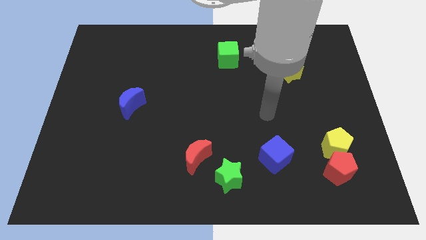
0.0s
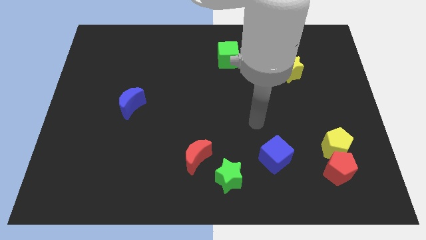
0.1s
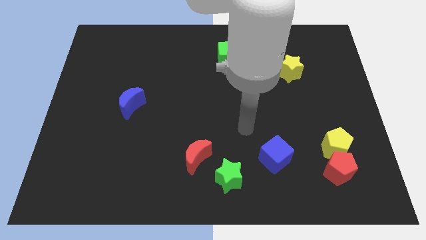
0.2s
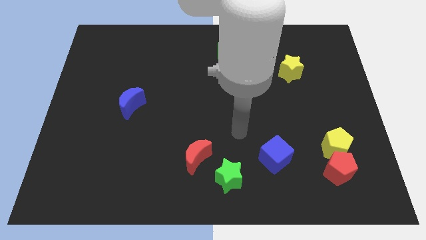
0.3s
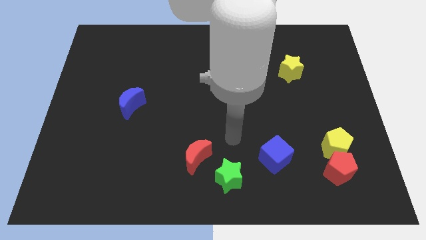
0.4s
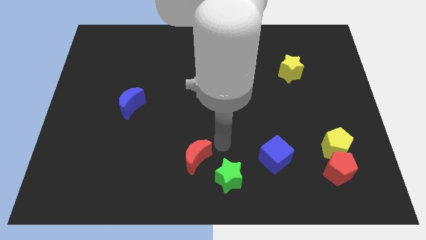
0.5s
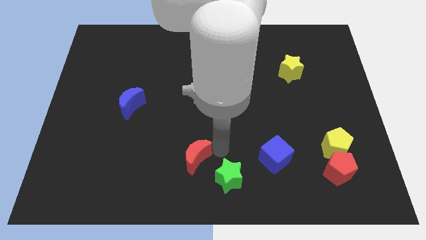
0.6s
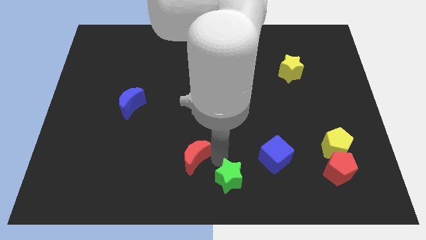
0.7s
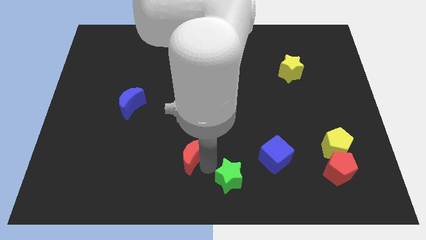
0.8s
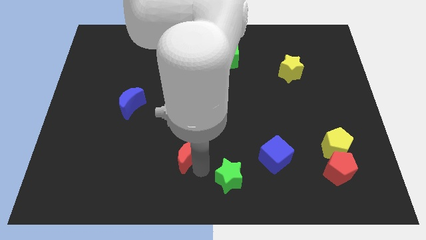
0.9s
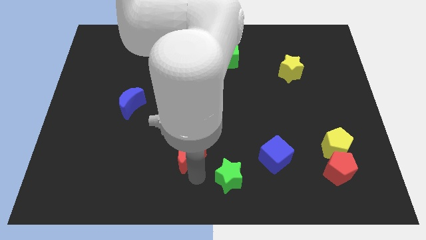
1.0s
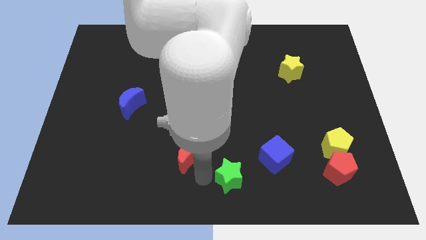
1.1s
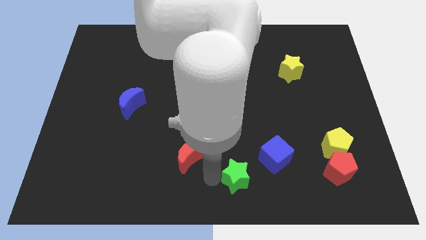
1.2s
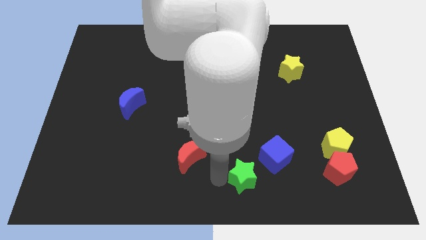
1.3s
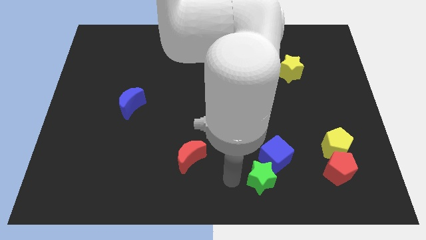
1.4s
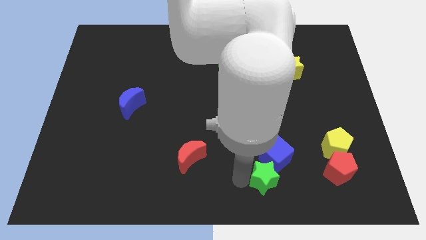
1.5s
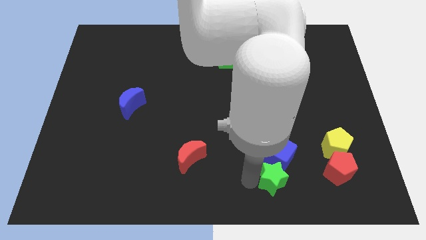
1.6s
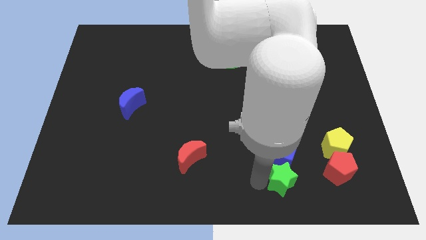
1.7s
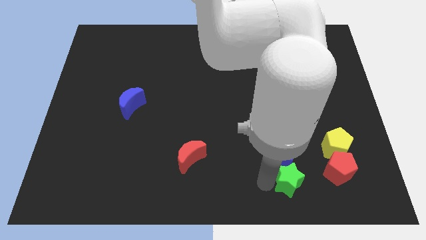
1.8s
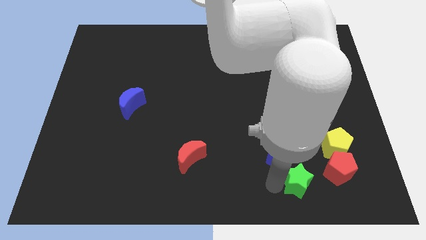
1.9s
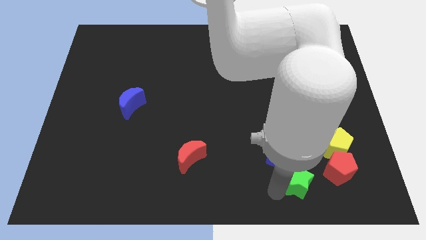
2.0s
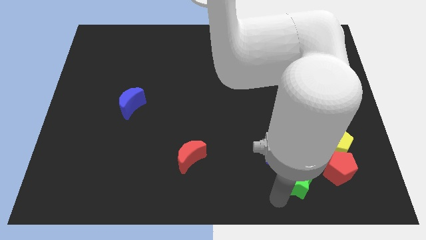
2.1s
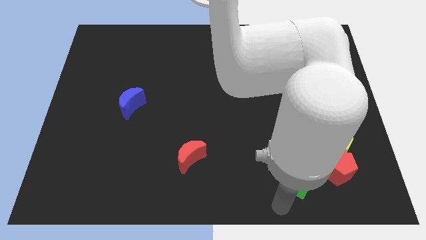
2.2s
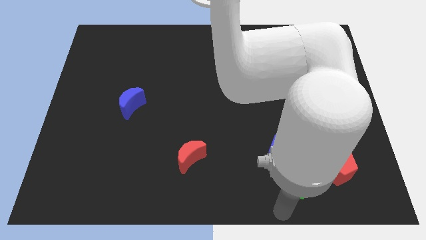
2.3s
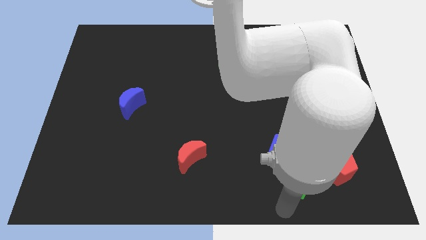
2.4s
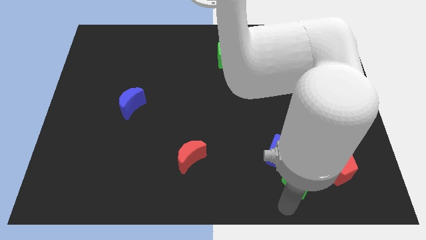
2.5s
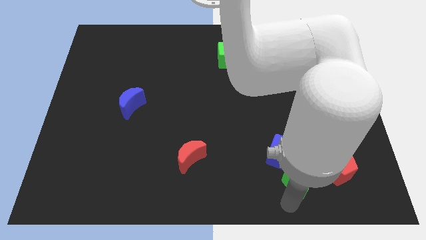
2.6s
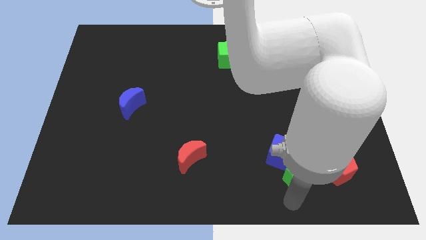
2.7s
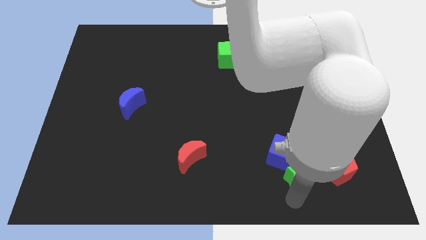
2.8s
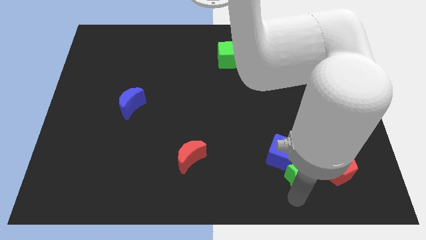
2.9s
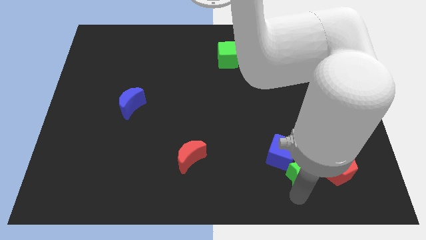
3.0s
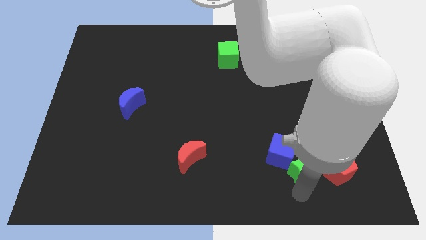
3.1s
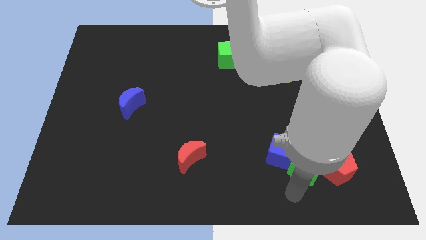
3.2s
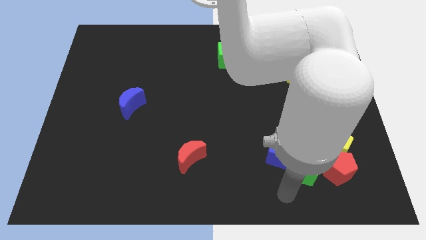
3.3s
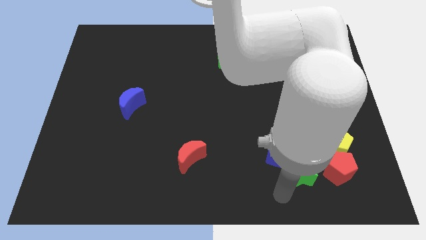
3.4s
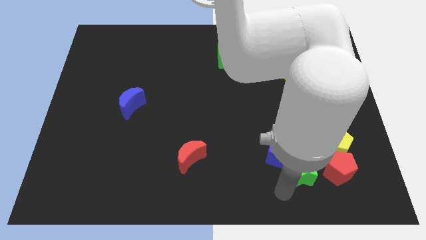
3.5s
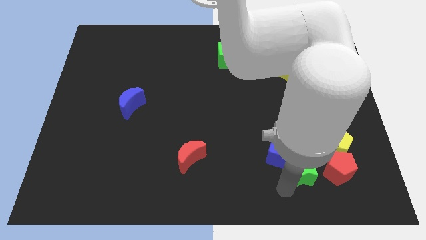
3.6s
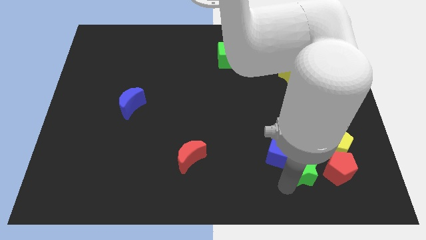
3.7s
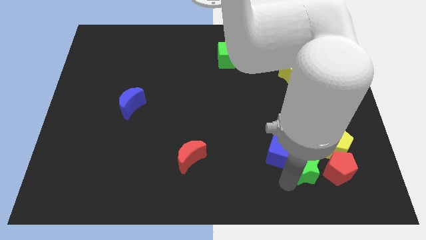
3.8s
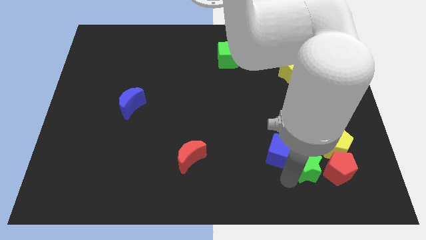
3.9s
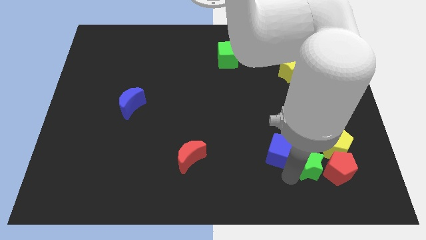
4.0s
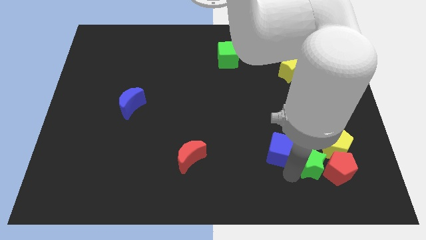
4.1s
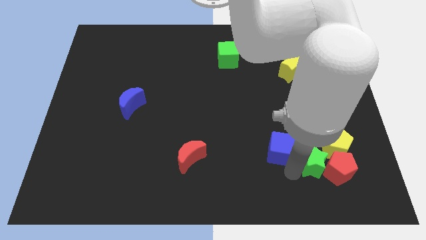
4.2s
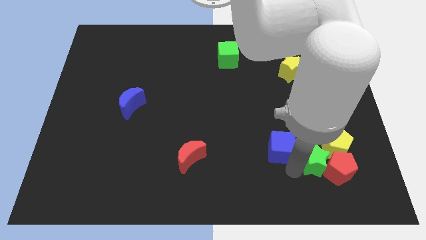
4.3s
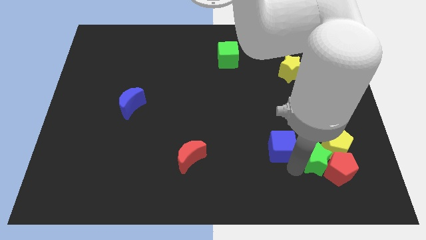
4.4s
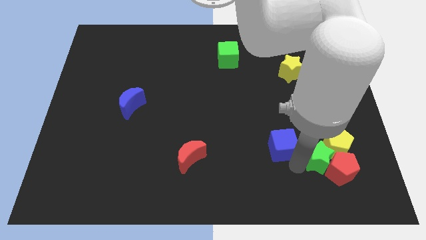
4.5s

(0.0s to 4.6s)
push the green star close to the yellow pentagon

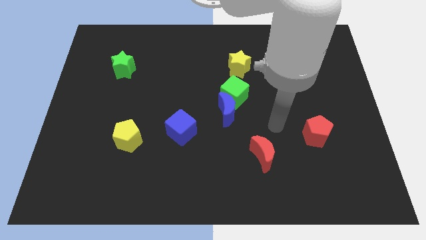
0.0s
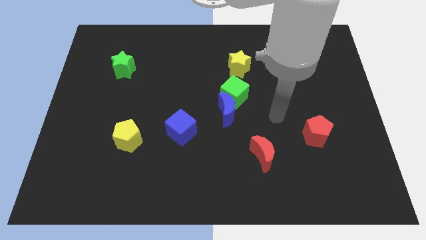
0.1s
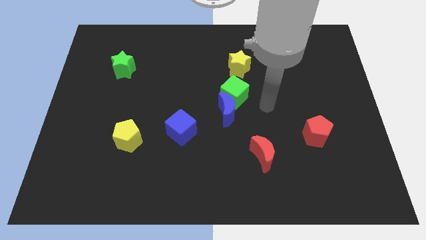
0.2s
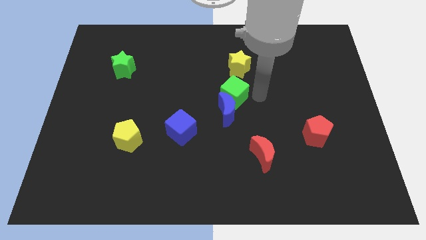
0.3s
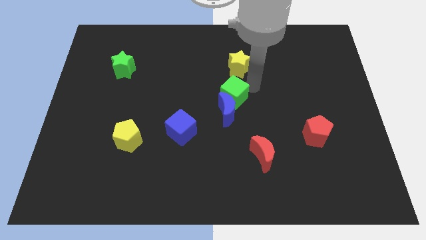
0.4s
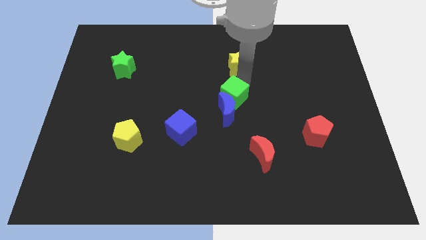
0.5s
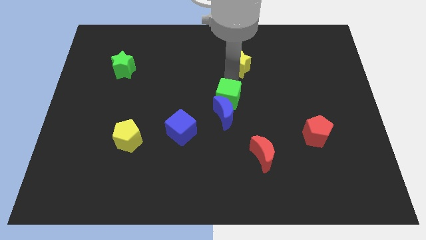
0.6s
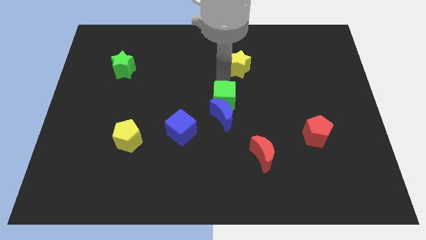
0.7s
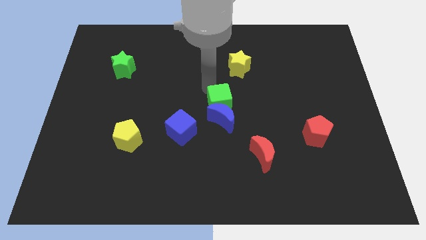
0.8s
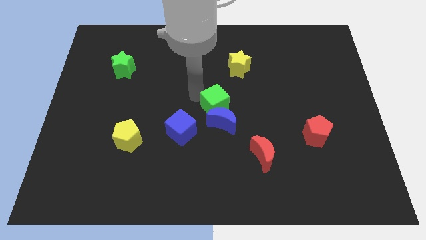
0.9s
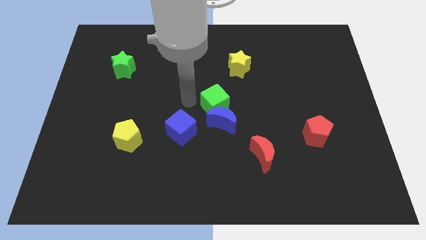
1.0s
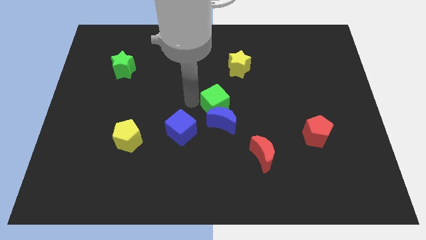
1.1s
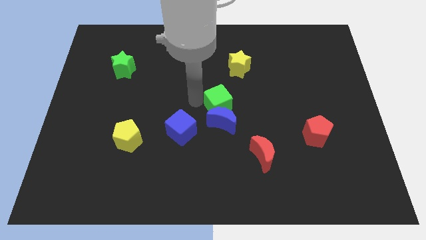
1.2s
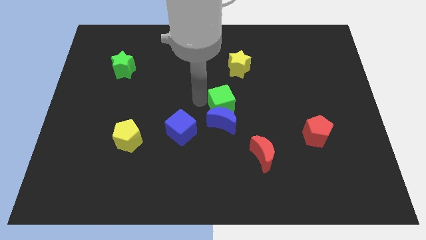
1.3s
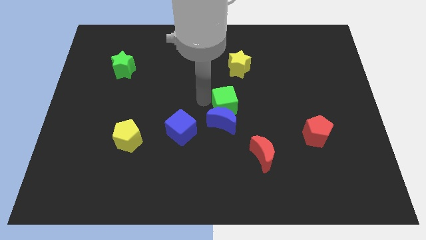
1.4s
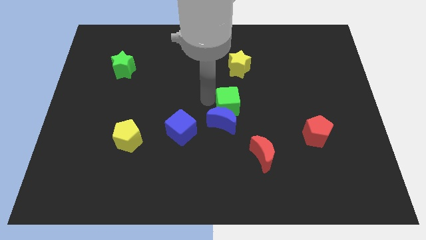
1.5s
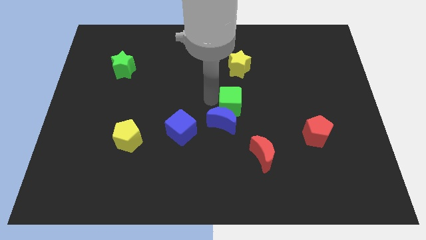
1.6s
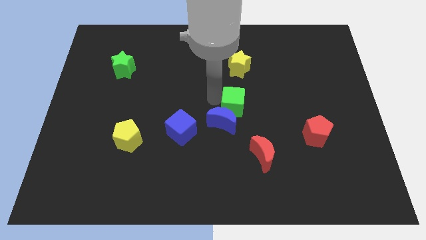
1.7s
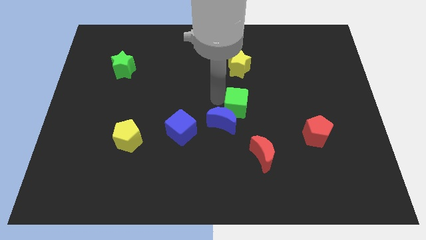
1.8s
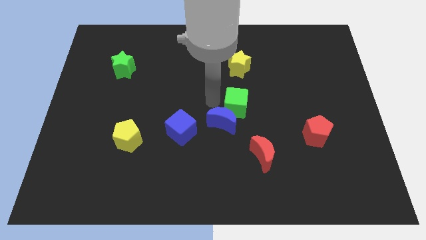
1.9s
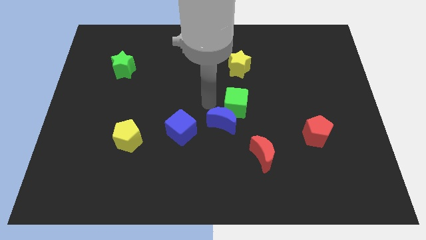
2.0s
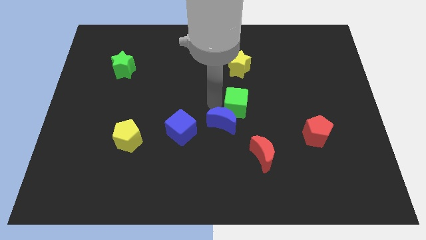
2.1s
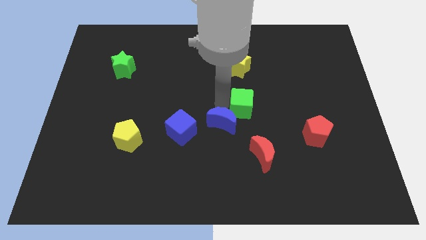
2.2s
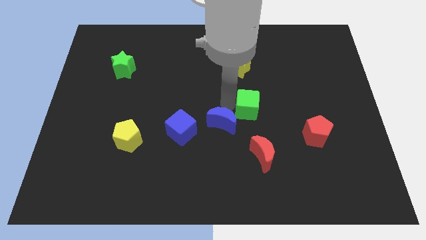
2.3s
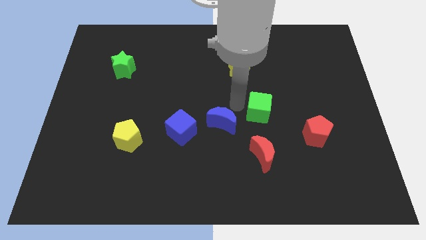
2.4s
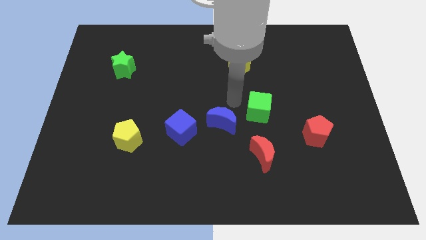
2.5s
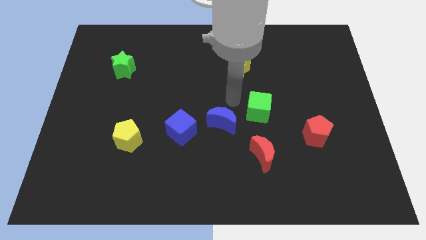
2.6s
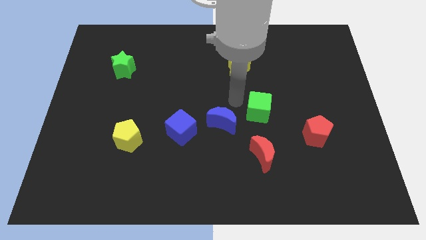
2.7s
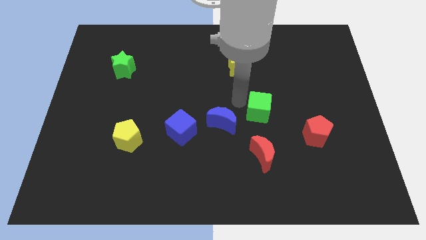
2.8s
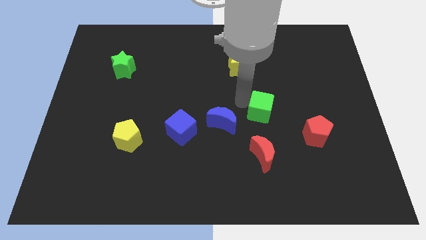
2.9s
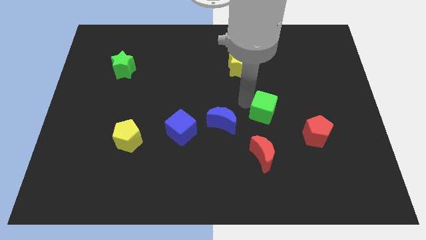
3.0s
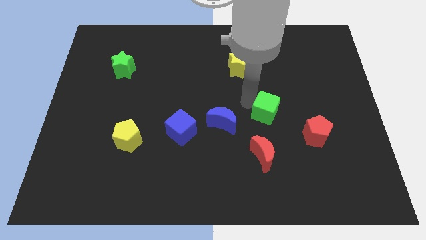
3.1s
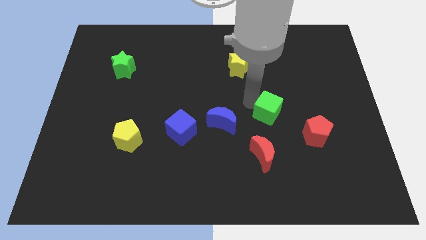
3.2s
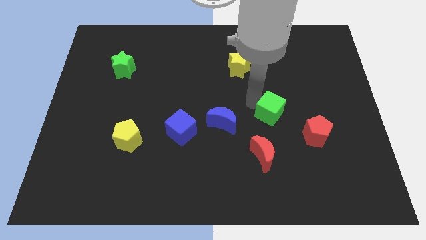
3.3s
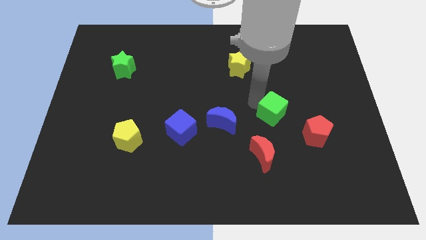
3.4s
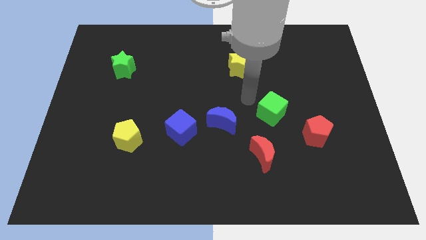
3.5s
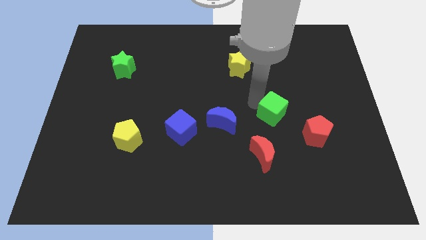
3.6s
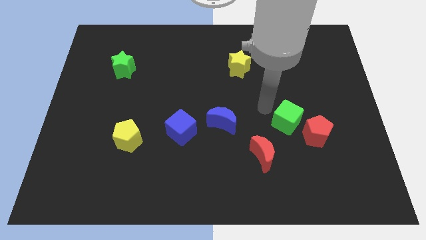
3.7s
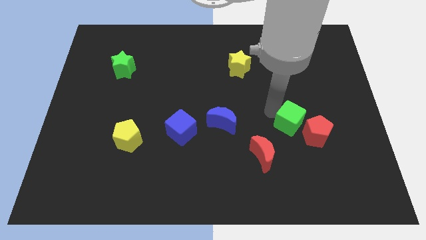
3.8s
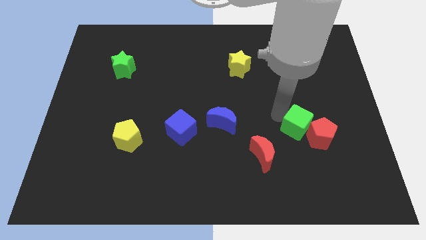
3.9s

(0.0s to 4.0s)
slide the green cube towards the red pentagon
